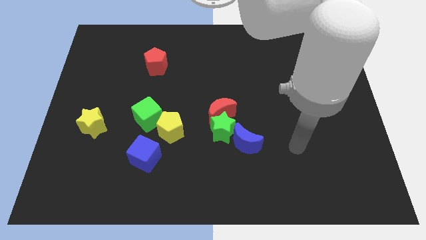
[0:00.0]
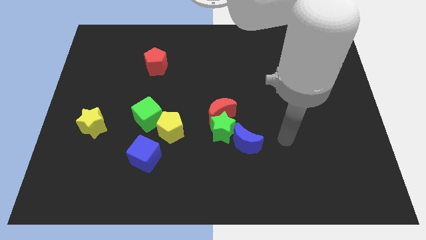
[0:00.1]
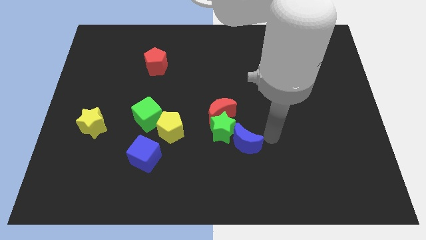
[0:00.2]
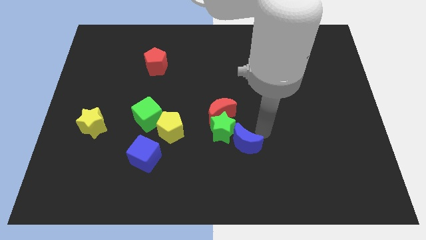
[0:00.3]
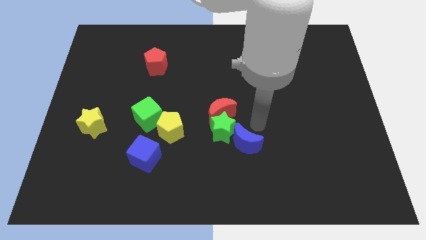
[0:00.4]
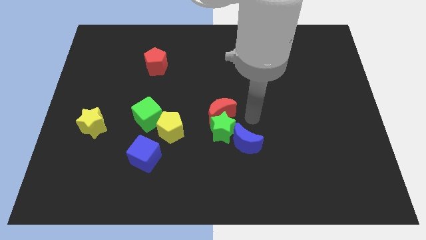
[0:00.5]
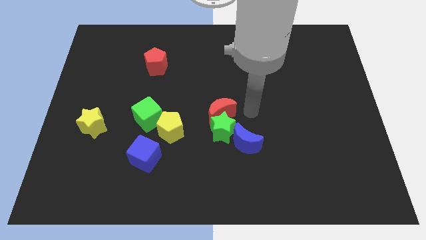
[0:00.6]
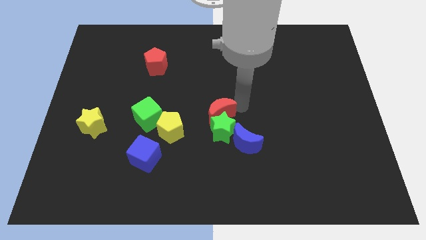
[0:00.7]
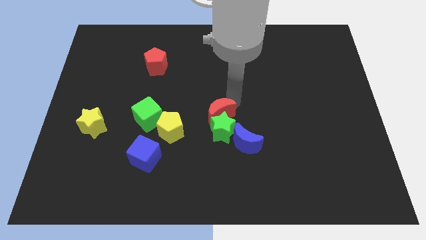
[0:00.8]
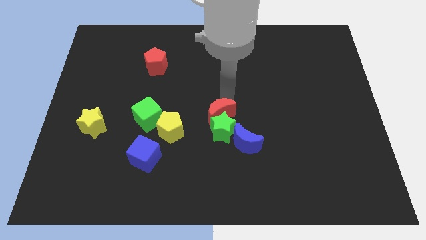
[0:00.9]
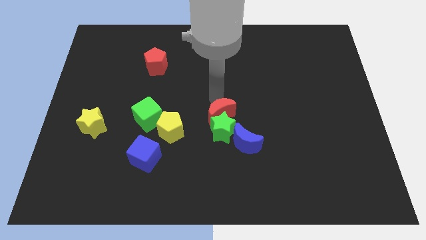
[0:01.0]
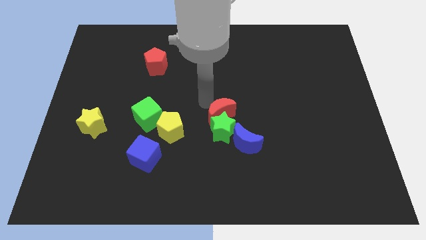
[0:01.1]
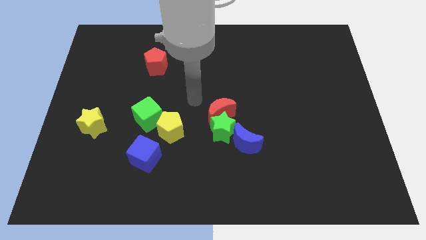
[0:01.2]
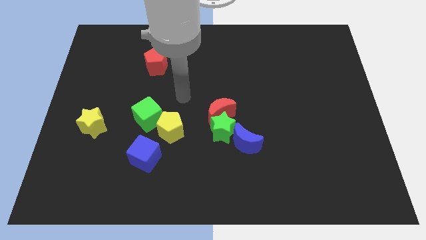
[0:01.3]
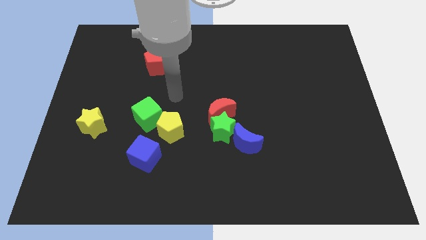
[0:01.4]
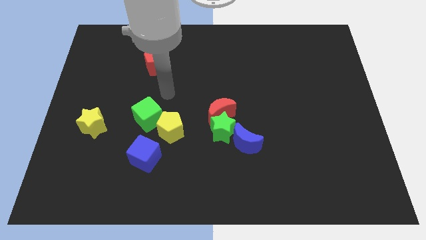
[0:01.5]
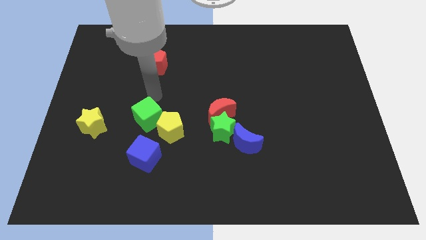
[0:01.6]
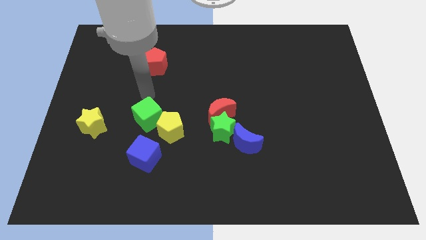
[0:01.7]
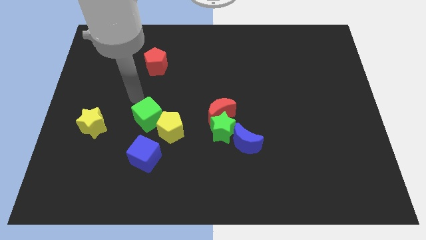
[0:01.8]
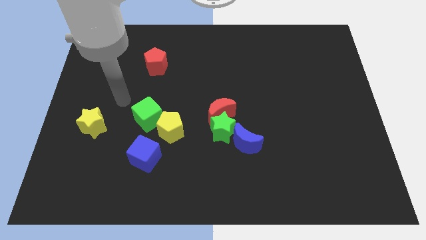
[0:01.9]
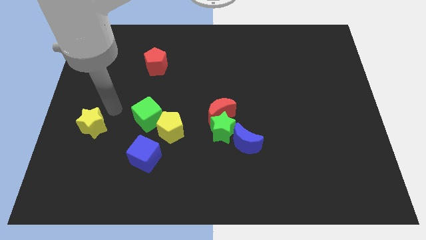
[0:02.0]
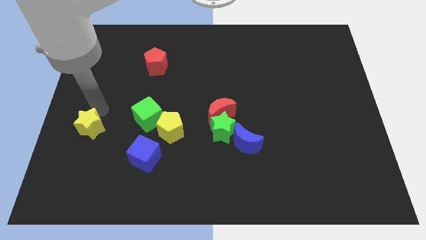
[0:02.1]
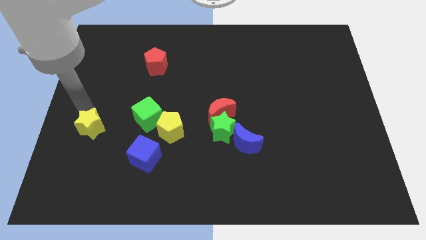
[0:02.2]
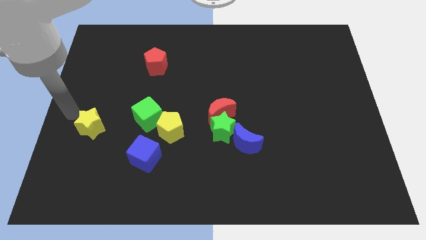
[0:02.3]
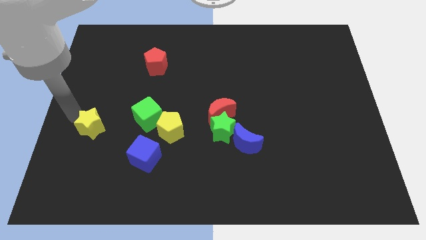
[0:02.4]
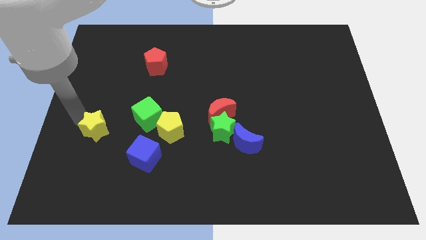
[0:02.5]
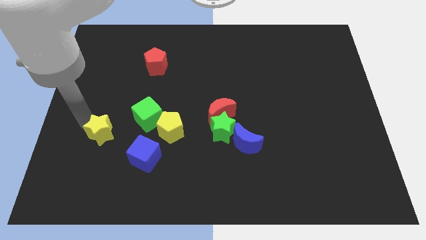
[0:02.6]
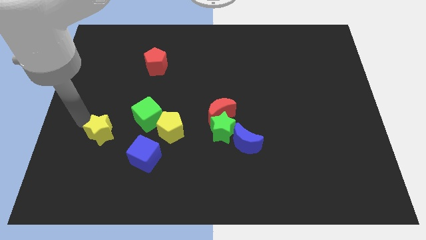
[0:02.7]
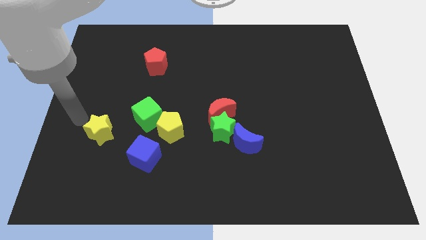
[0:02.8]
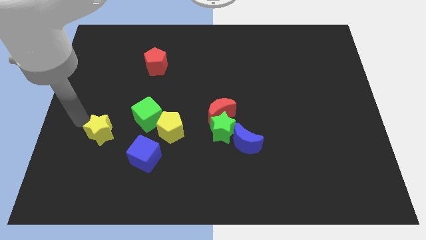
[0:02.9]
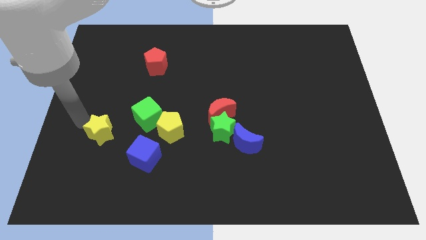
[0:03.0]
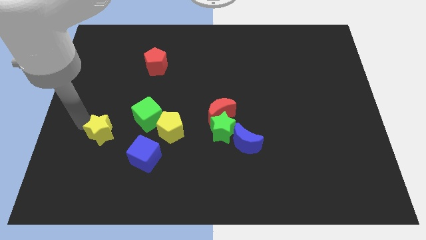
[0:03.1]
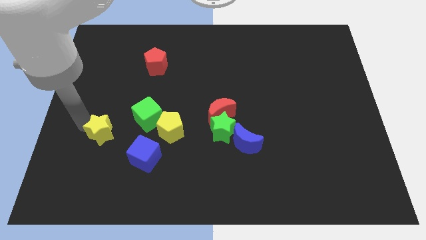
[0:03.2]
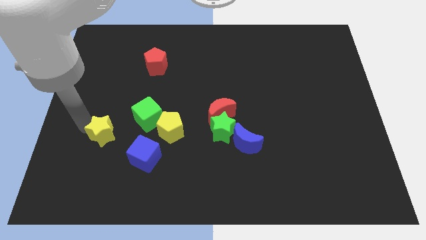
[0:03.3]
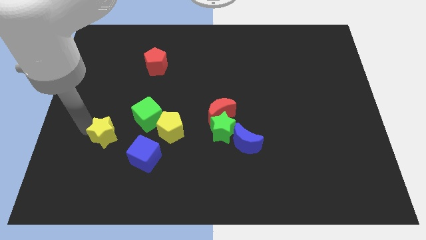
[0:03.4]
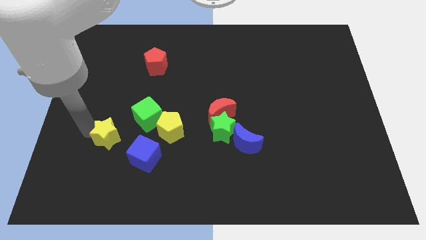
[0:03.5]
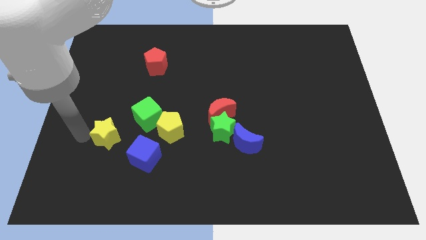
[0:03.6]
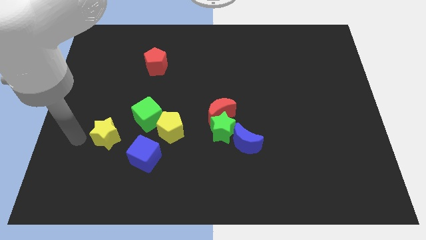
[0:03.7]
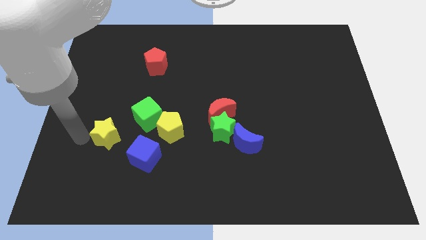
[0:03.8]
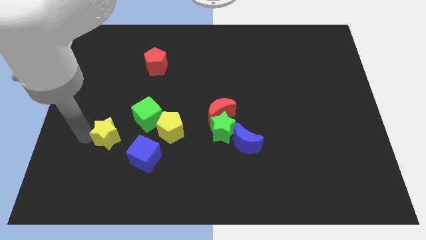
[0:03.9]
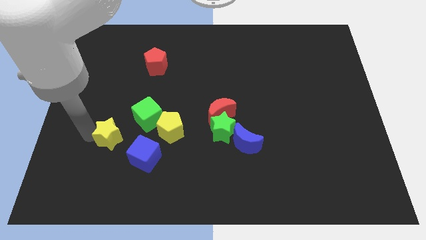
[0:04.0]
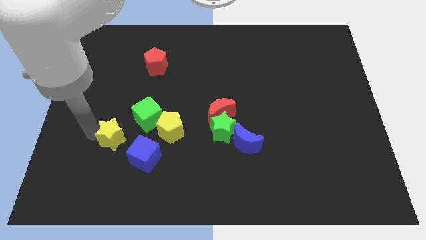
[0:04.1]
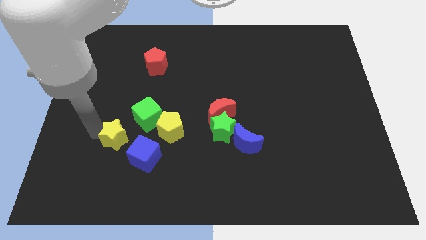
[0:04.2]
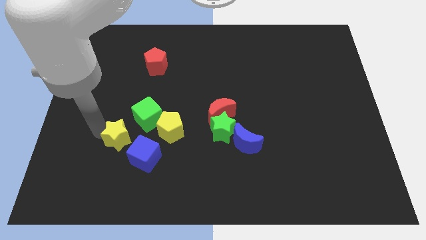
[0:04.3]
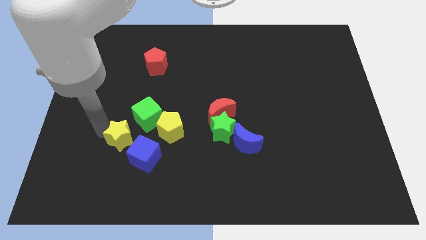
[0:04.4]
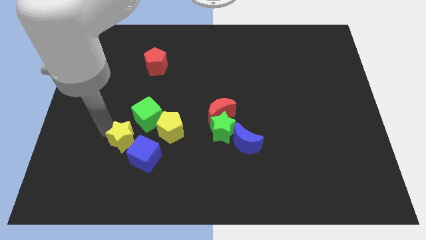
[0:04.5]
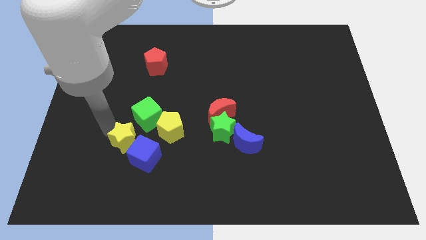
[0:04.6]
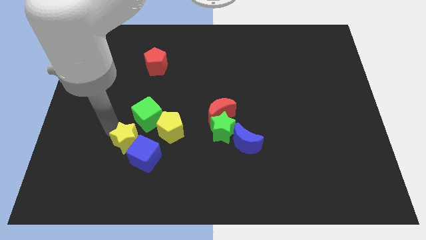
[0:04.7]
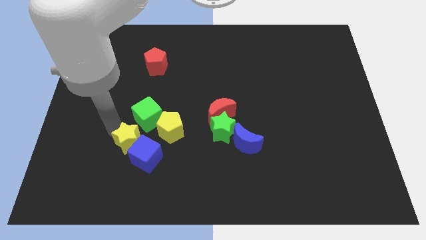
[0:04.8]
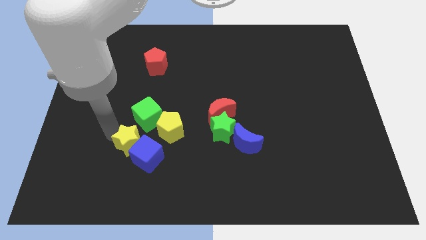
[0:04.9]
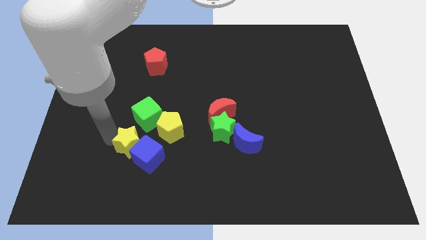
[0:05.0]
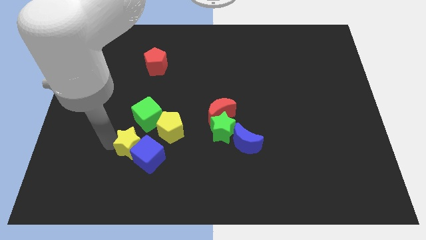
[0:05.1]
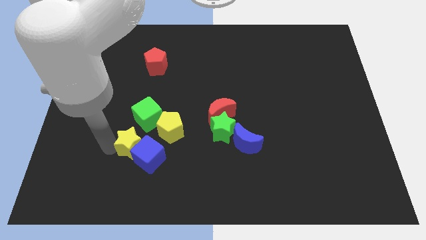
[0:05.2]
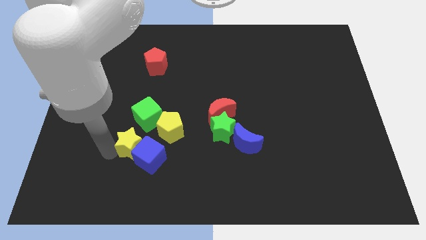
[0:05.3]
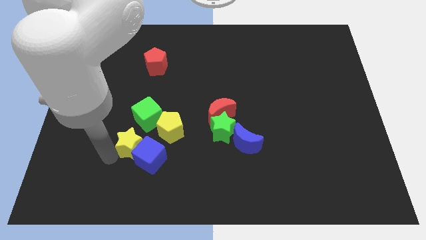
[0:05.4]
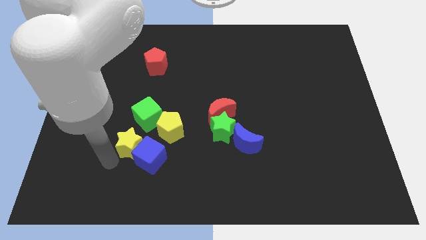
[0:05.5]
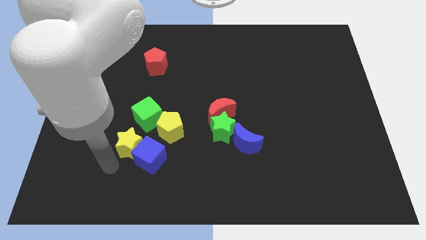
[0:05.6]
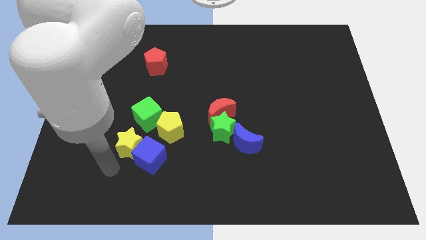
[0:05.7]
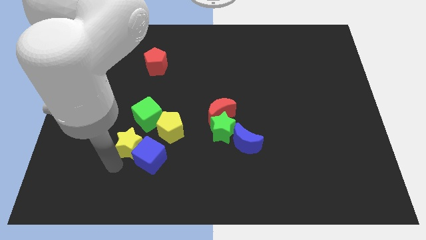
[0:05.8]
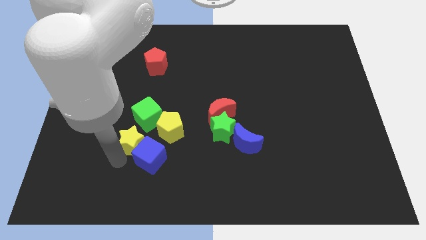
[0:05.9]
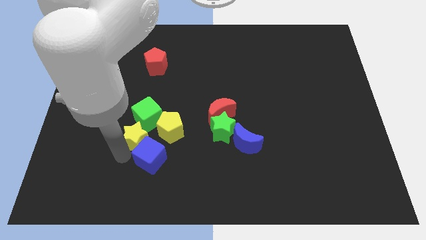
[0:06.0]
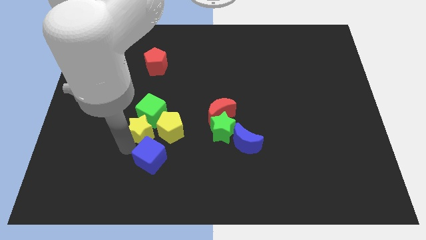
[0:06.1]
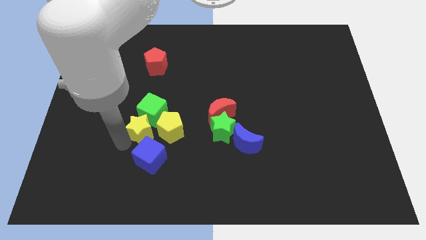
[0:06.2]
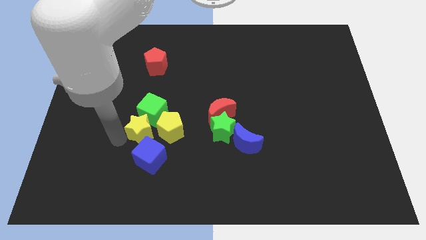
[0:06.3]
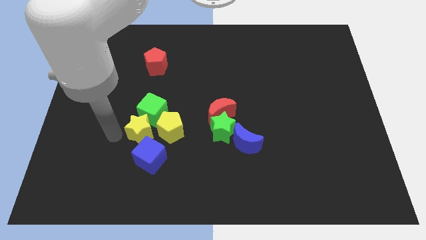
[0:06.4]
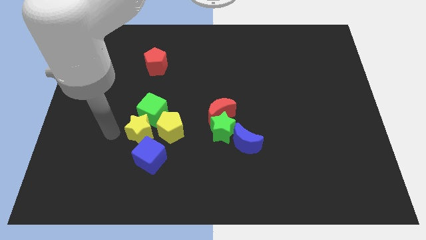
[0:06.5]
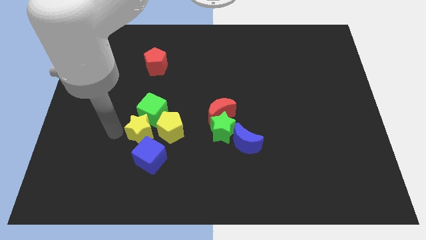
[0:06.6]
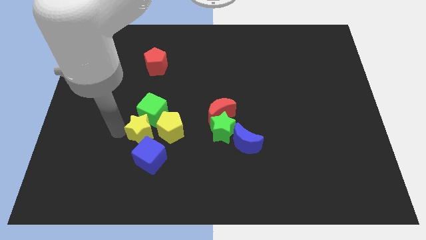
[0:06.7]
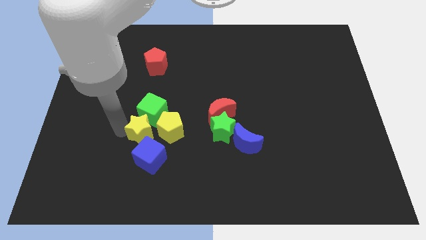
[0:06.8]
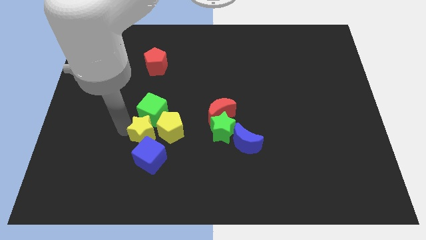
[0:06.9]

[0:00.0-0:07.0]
move the yellow star next to the yellow pentagon
